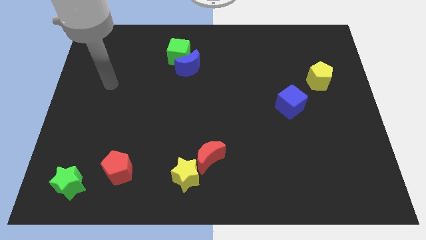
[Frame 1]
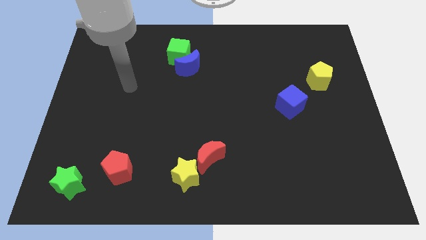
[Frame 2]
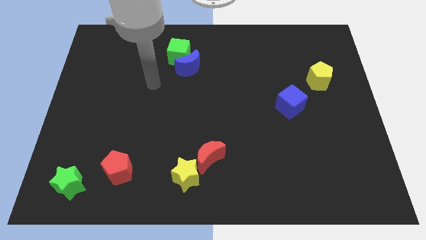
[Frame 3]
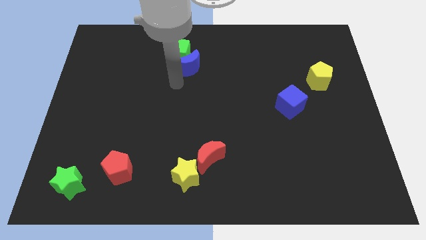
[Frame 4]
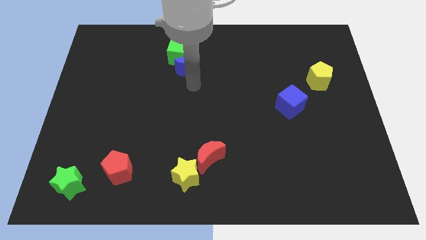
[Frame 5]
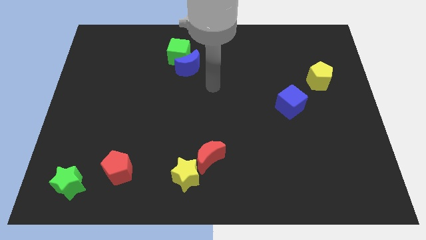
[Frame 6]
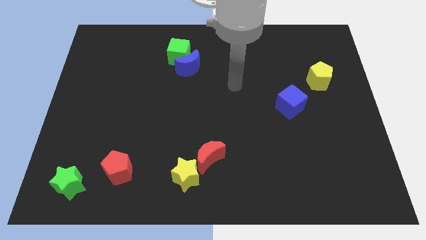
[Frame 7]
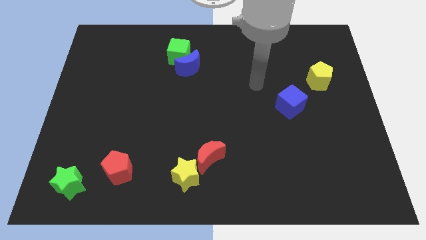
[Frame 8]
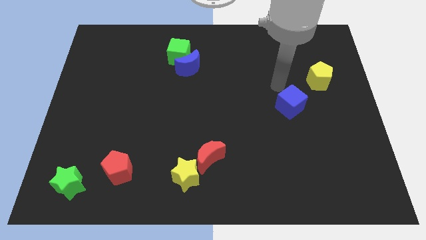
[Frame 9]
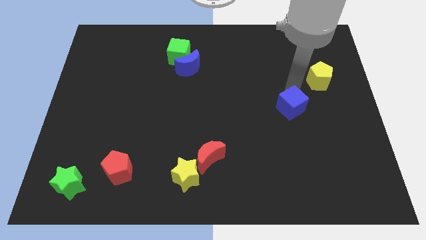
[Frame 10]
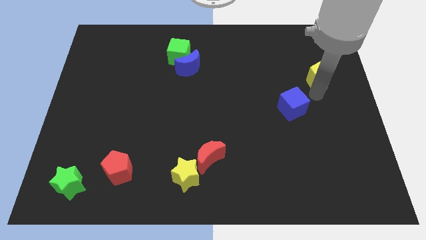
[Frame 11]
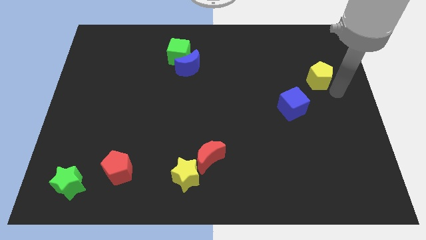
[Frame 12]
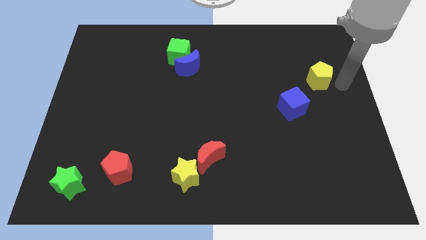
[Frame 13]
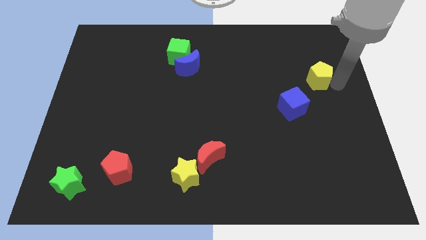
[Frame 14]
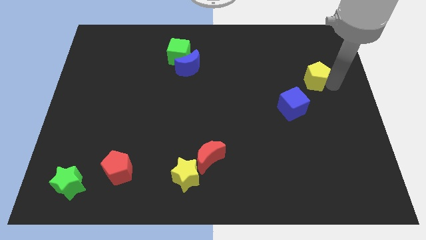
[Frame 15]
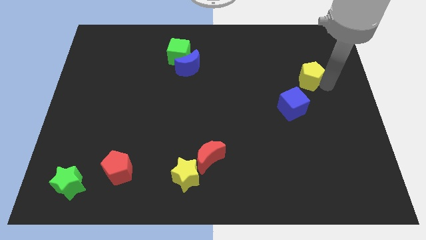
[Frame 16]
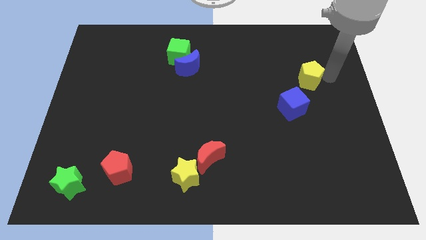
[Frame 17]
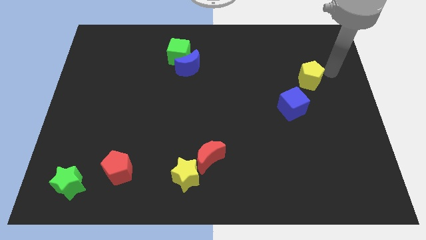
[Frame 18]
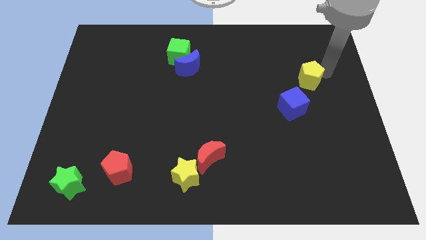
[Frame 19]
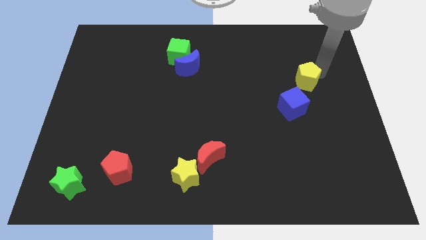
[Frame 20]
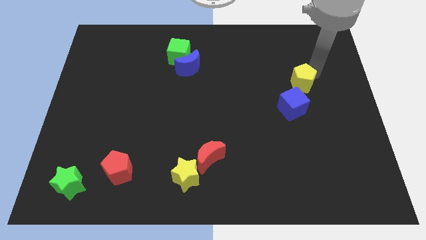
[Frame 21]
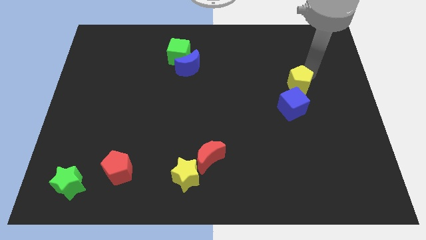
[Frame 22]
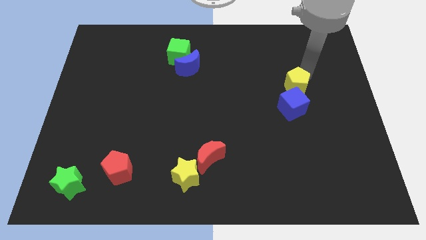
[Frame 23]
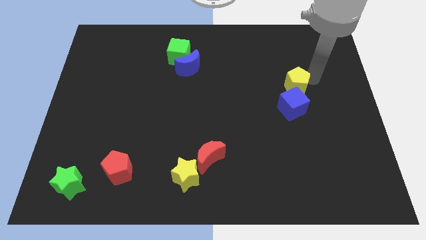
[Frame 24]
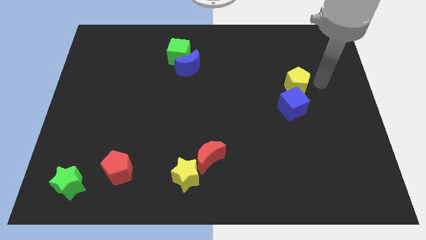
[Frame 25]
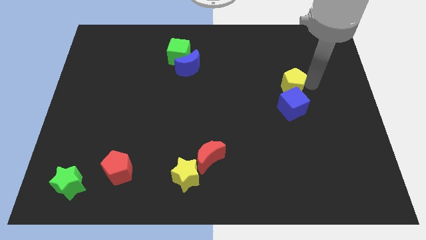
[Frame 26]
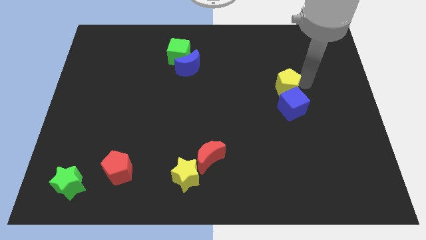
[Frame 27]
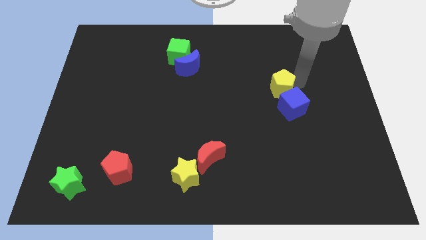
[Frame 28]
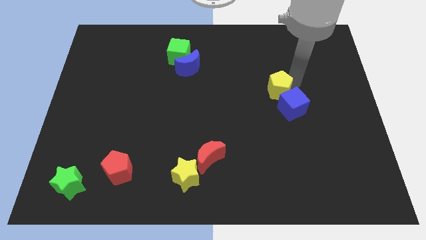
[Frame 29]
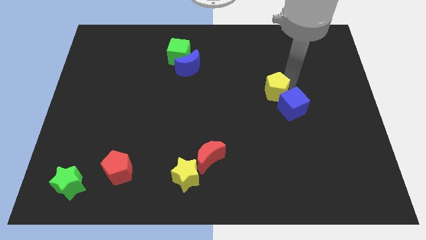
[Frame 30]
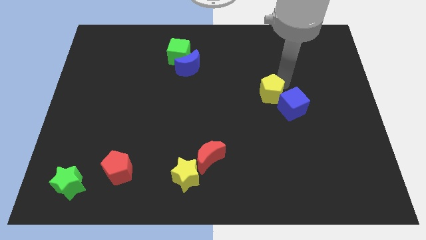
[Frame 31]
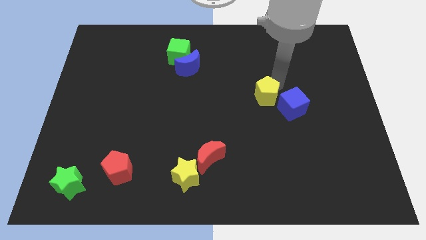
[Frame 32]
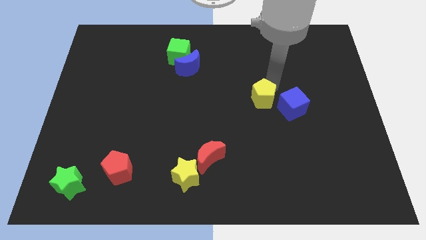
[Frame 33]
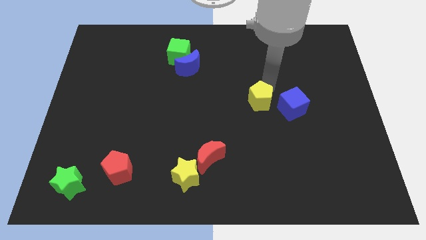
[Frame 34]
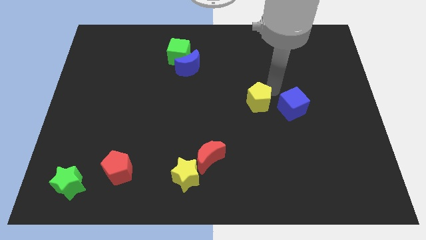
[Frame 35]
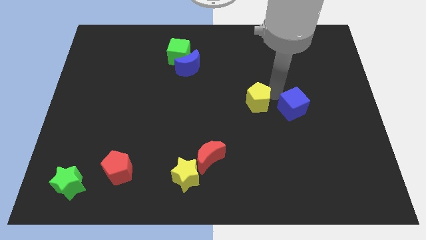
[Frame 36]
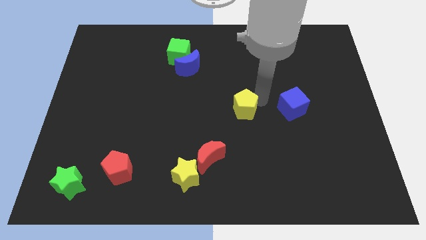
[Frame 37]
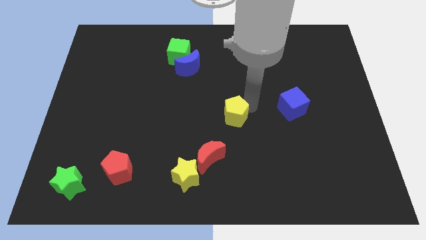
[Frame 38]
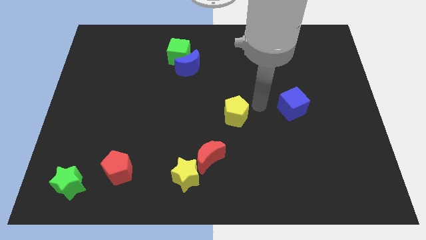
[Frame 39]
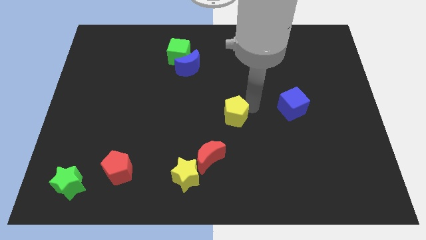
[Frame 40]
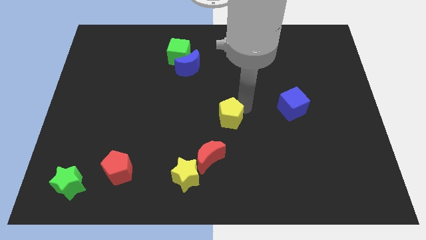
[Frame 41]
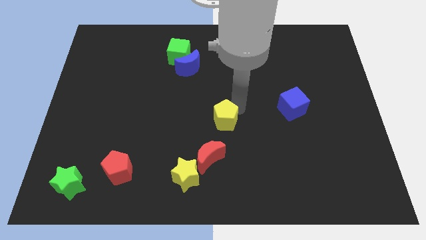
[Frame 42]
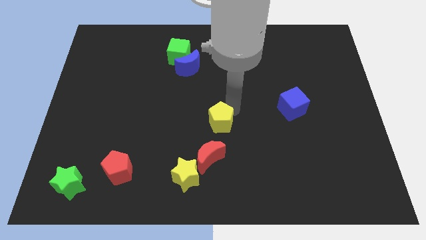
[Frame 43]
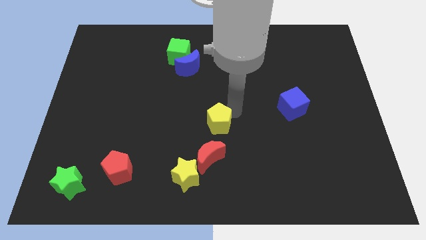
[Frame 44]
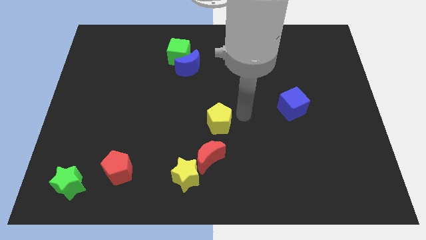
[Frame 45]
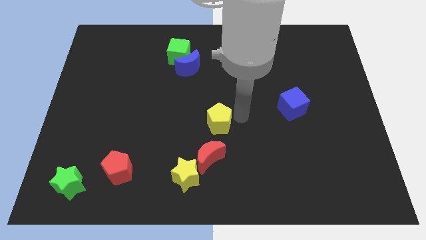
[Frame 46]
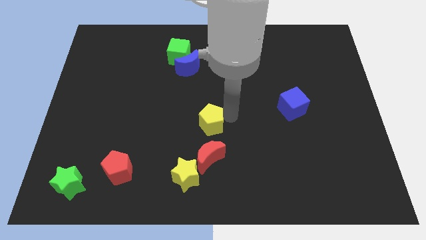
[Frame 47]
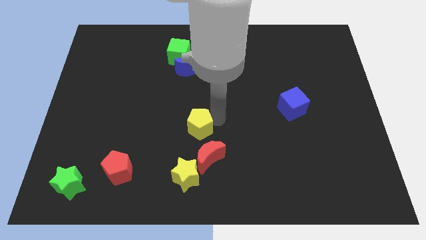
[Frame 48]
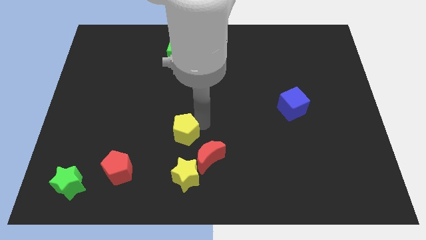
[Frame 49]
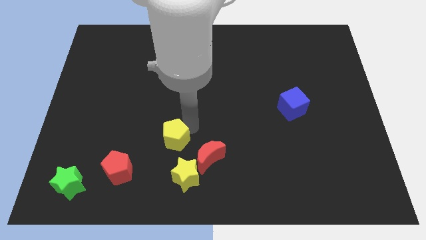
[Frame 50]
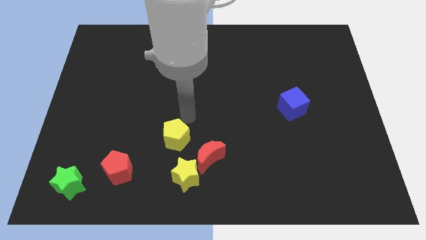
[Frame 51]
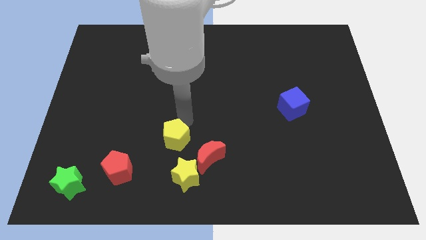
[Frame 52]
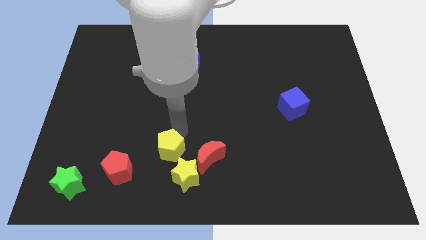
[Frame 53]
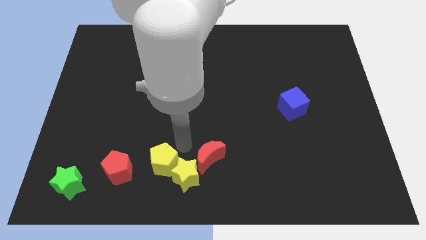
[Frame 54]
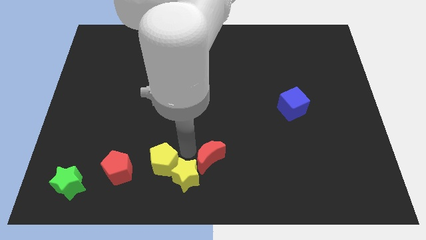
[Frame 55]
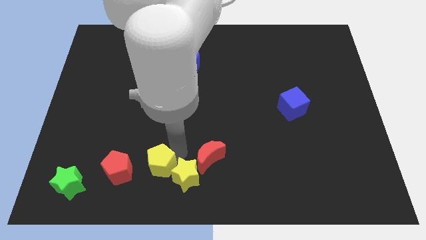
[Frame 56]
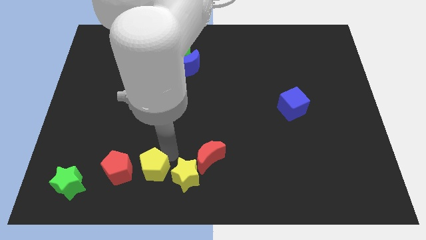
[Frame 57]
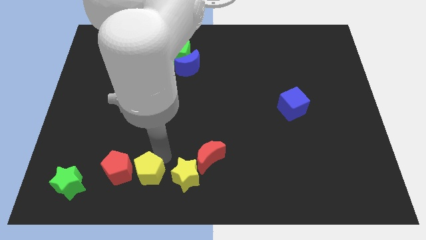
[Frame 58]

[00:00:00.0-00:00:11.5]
slide the yellow pentagon to the right side of the green star

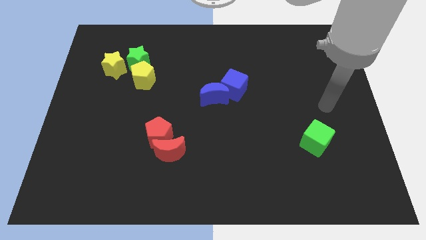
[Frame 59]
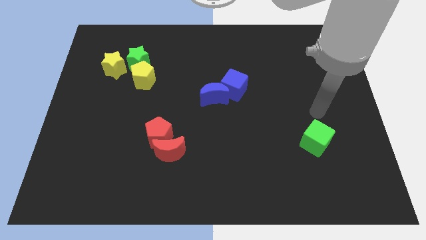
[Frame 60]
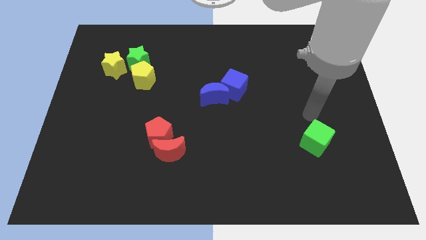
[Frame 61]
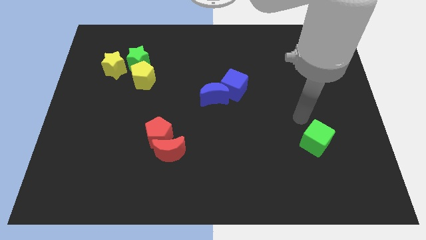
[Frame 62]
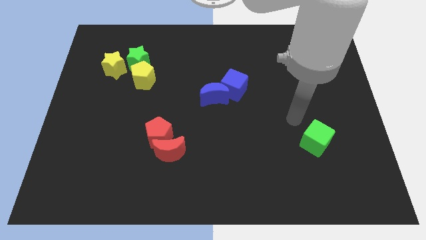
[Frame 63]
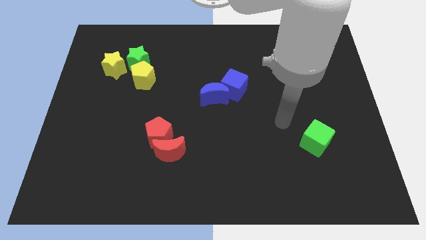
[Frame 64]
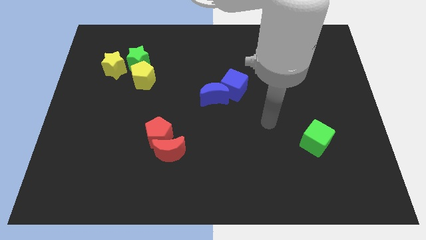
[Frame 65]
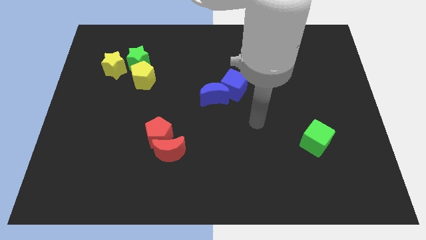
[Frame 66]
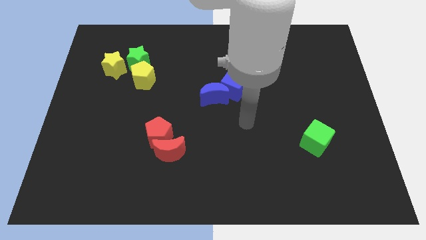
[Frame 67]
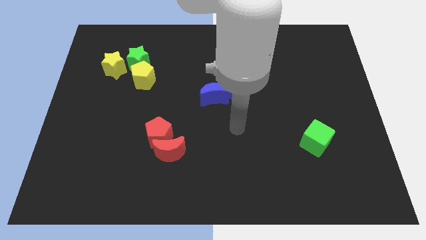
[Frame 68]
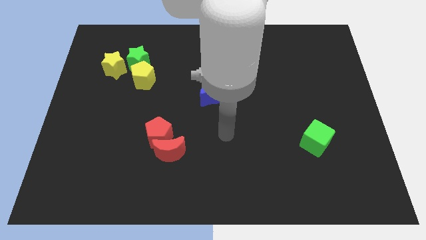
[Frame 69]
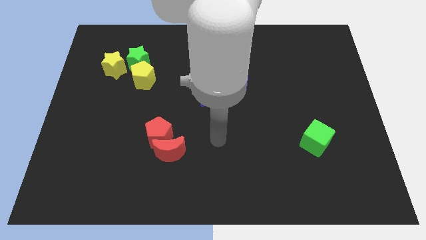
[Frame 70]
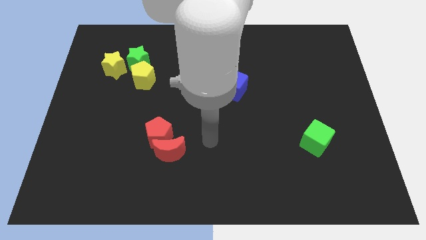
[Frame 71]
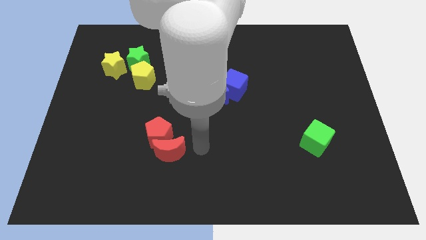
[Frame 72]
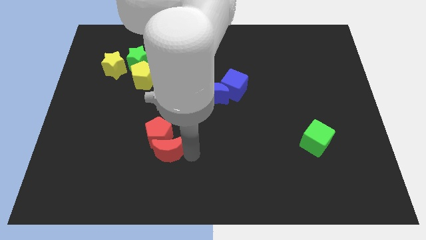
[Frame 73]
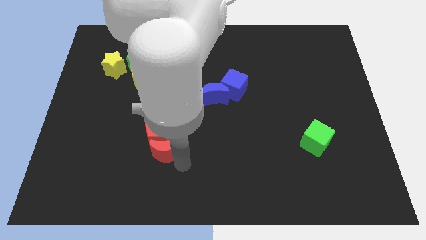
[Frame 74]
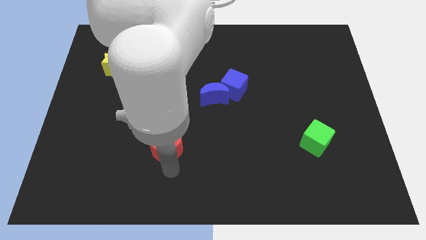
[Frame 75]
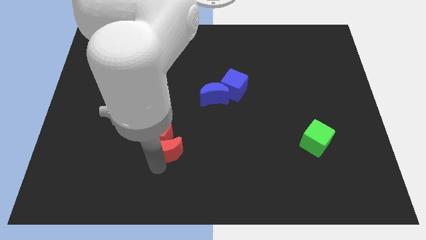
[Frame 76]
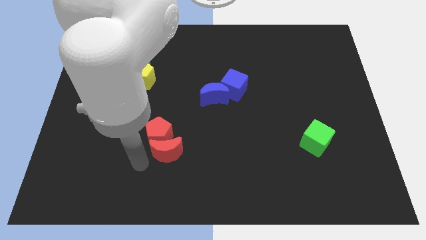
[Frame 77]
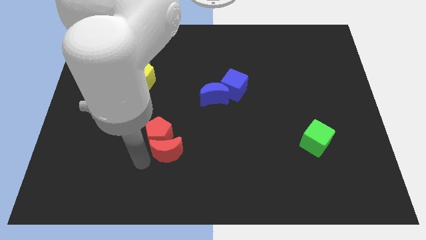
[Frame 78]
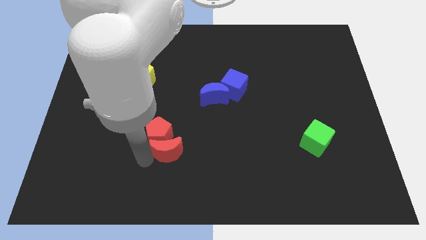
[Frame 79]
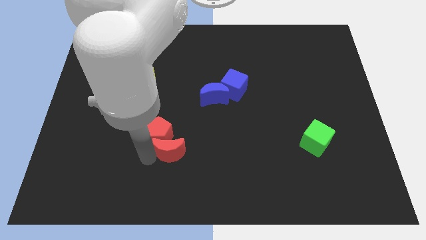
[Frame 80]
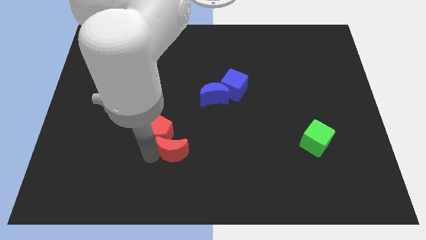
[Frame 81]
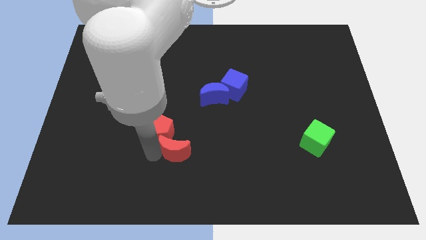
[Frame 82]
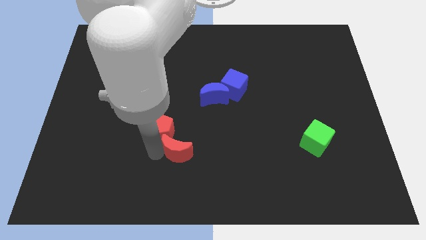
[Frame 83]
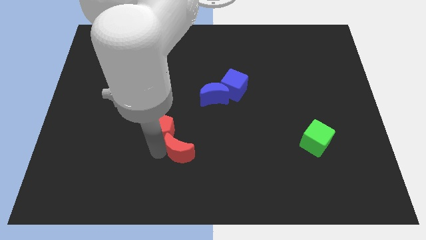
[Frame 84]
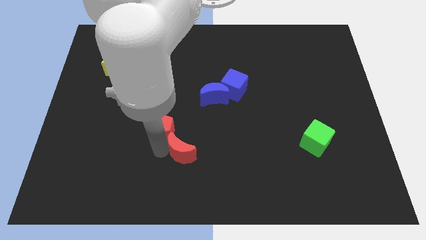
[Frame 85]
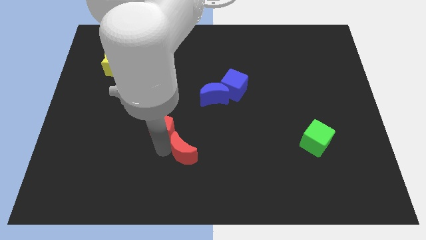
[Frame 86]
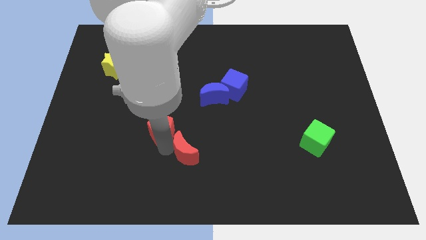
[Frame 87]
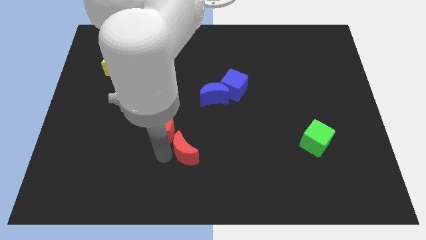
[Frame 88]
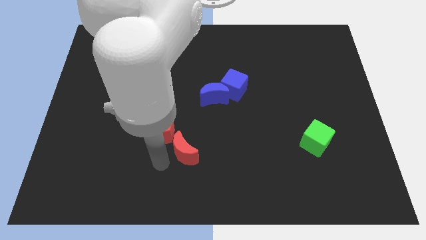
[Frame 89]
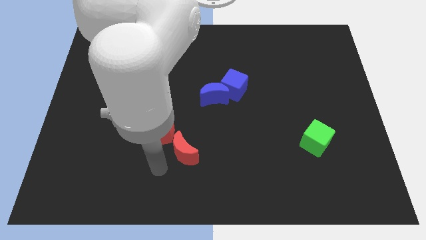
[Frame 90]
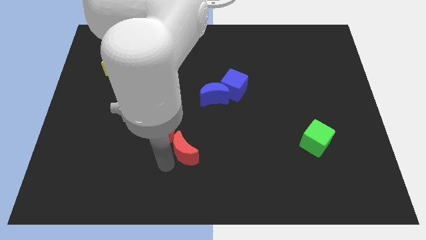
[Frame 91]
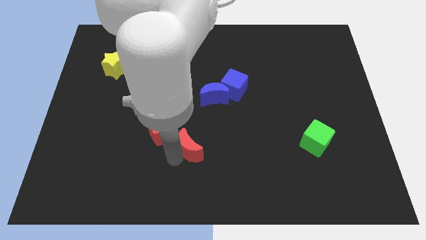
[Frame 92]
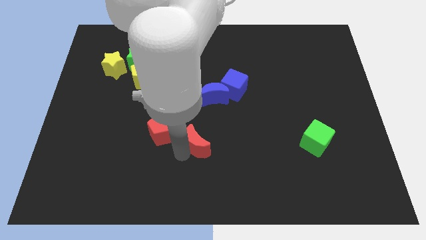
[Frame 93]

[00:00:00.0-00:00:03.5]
move the red moon to the bottom of the blue moon
